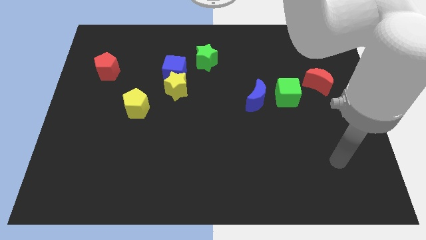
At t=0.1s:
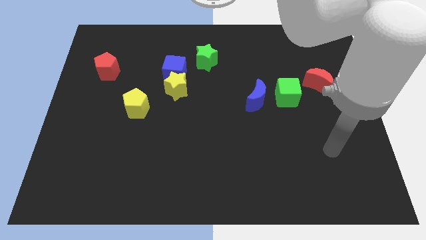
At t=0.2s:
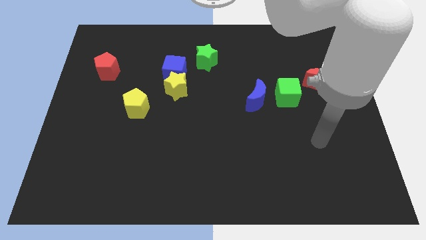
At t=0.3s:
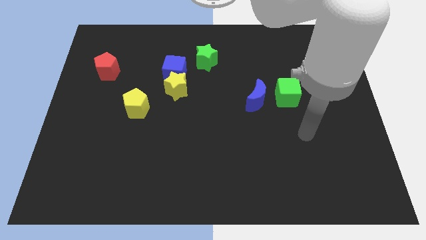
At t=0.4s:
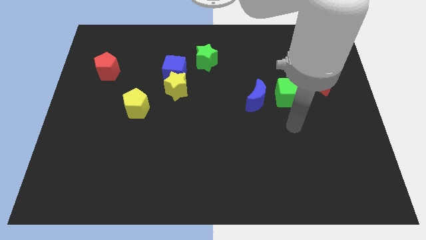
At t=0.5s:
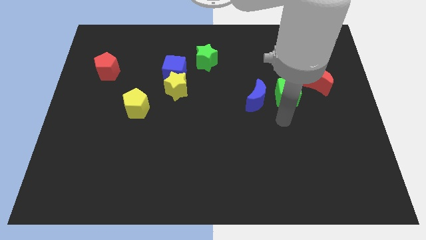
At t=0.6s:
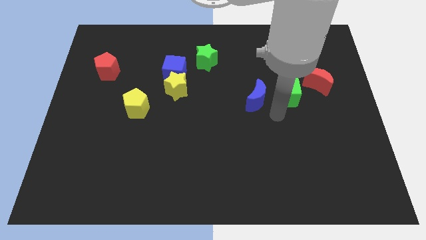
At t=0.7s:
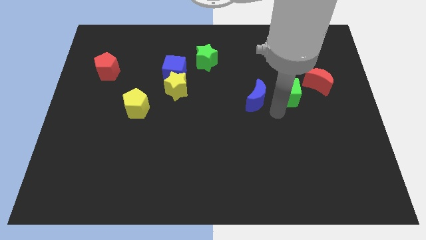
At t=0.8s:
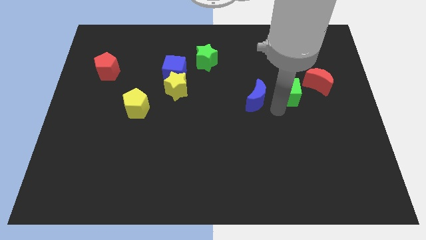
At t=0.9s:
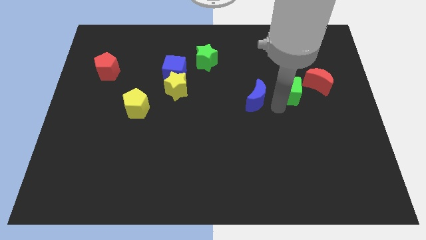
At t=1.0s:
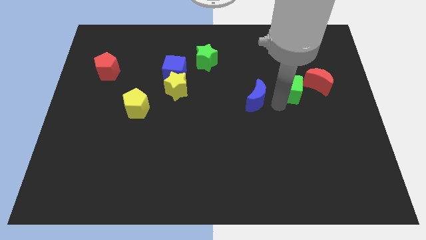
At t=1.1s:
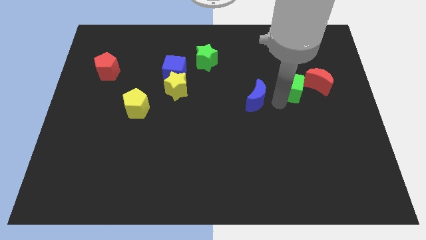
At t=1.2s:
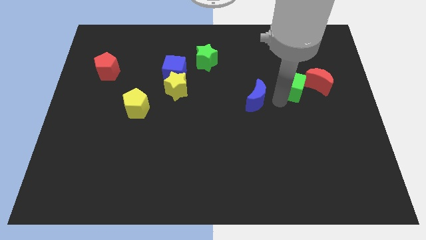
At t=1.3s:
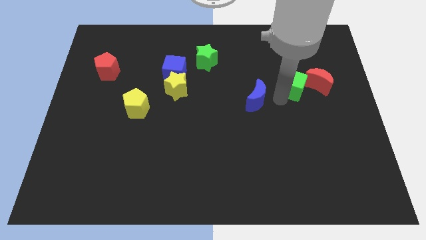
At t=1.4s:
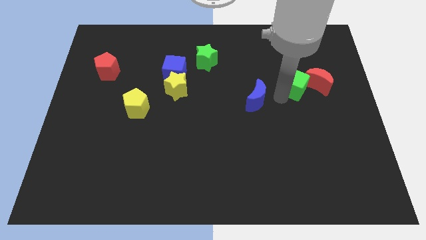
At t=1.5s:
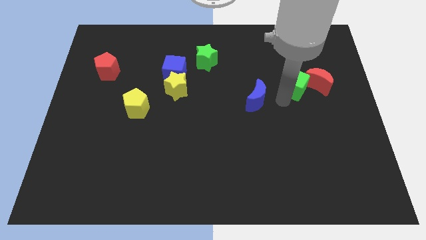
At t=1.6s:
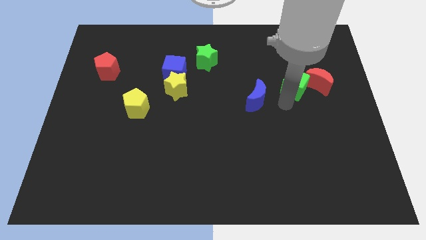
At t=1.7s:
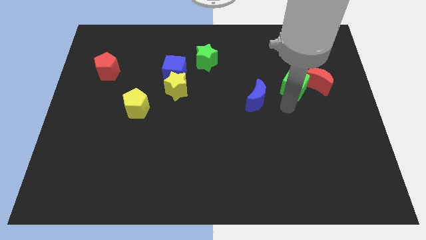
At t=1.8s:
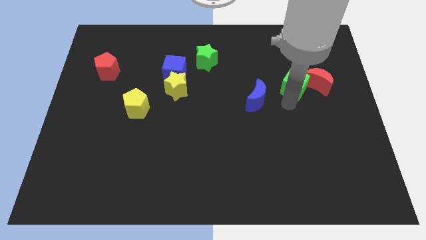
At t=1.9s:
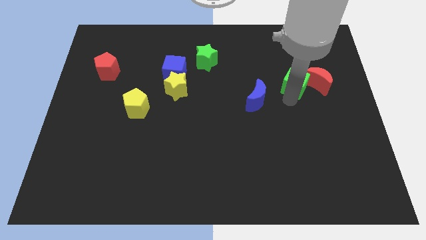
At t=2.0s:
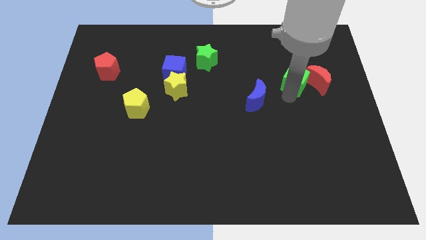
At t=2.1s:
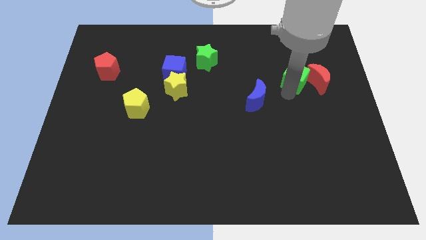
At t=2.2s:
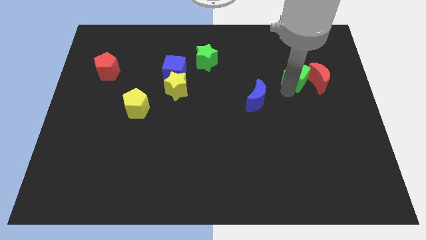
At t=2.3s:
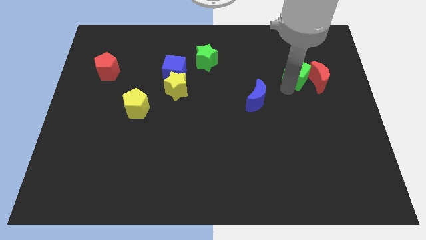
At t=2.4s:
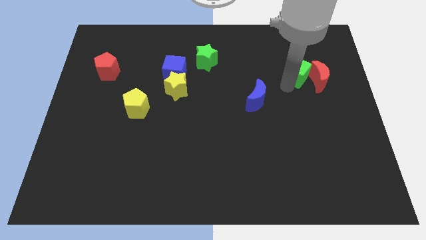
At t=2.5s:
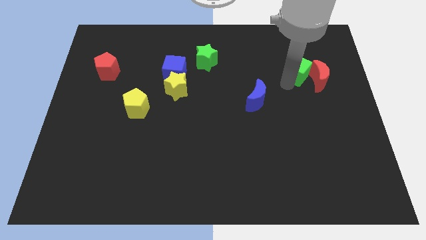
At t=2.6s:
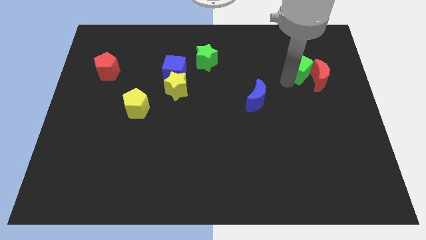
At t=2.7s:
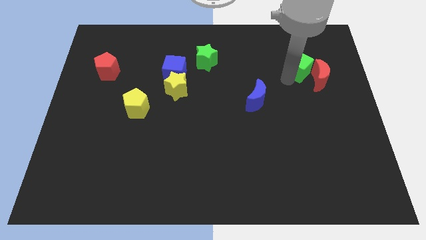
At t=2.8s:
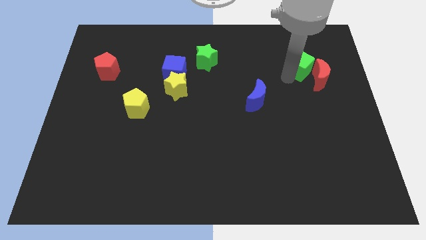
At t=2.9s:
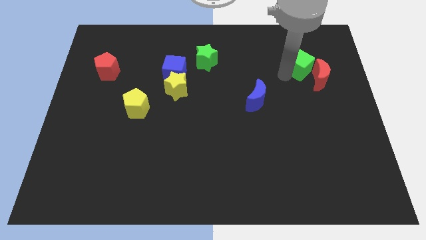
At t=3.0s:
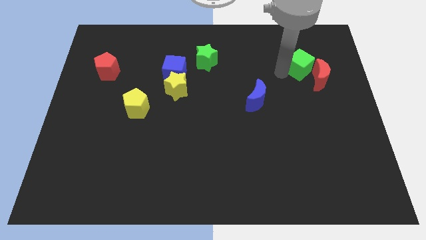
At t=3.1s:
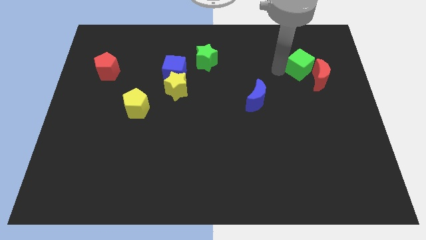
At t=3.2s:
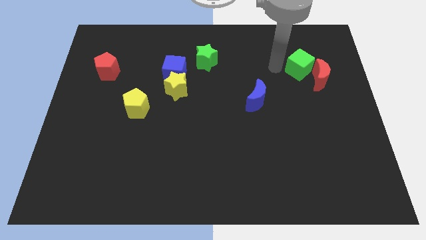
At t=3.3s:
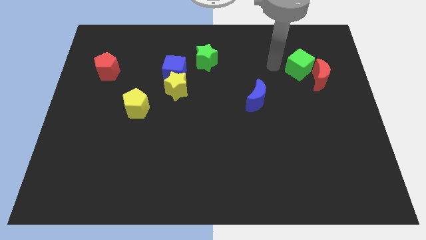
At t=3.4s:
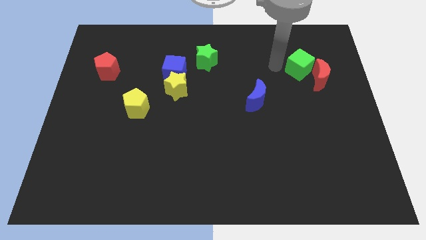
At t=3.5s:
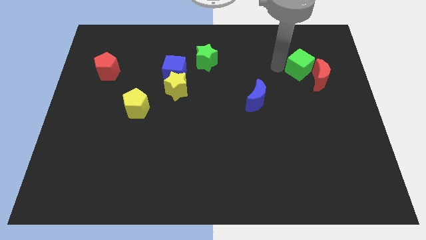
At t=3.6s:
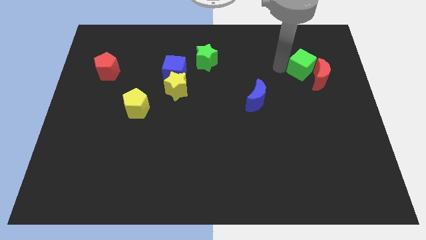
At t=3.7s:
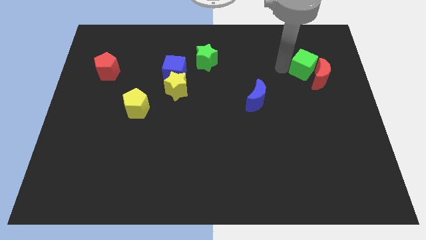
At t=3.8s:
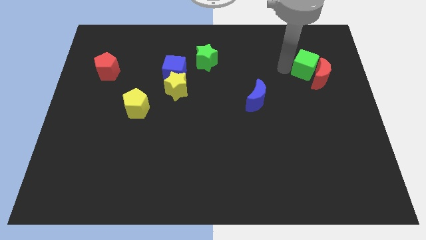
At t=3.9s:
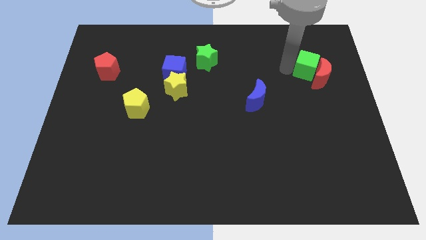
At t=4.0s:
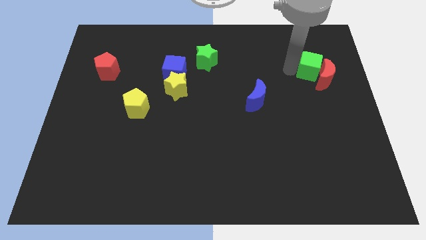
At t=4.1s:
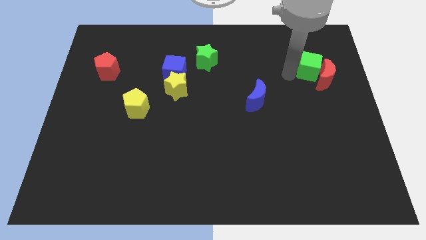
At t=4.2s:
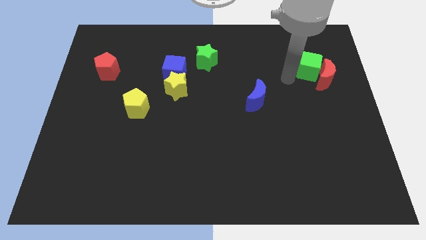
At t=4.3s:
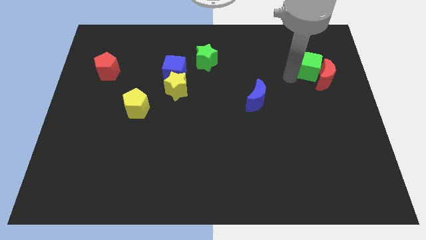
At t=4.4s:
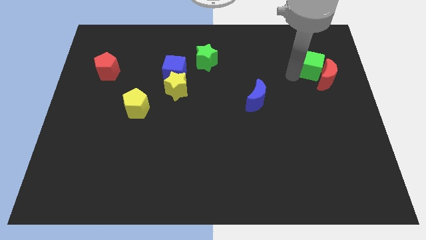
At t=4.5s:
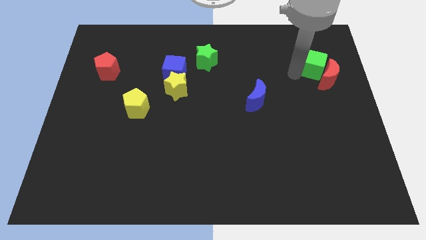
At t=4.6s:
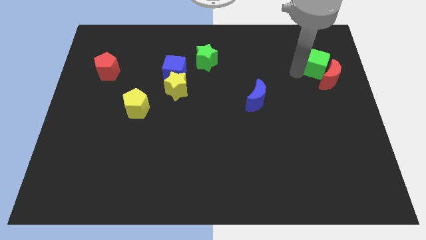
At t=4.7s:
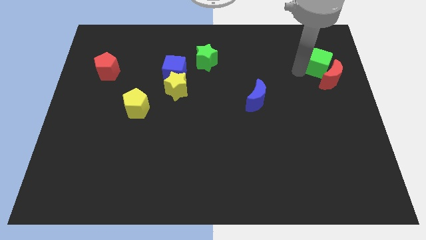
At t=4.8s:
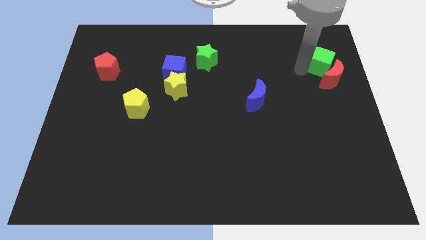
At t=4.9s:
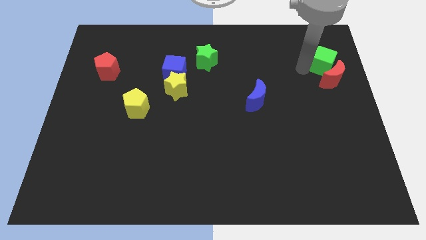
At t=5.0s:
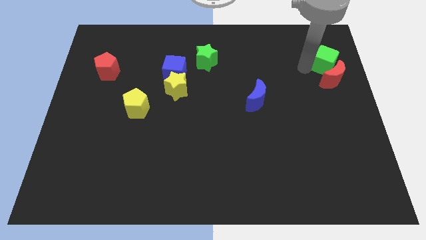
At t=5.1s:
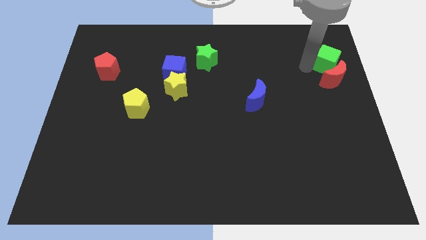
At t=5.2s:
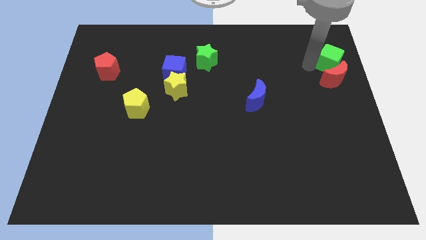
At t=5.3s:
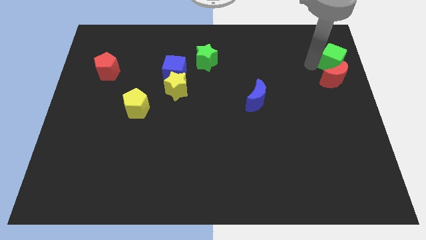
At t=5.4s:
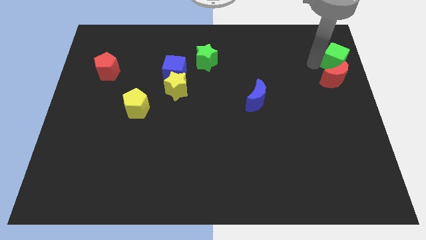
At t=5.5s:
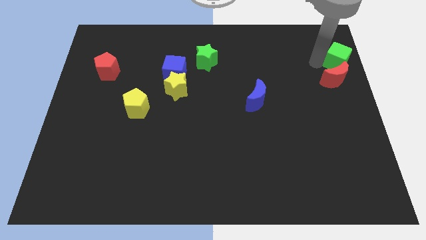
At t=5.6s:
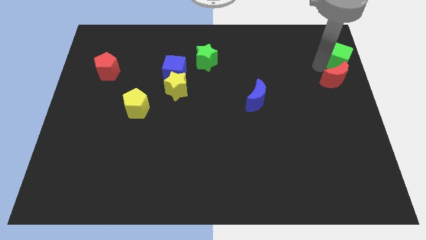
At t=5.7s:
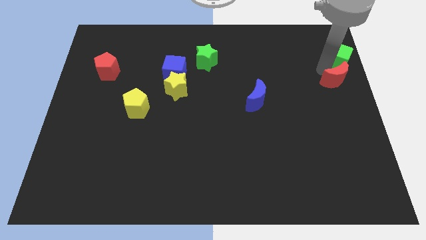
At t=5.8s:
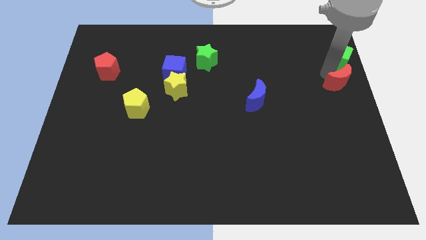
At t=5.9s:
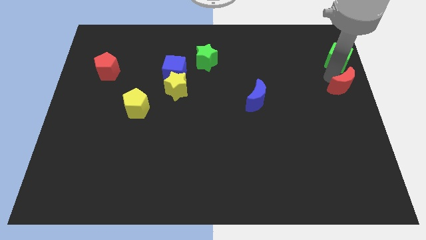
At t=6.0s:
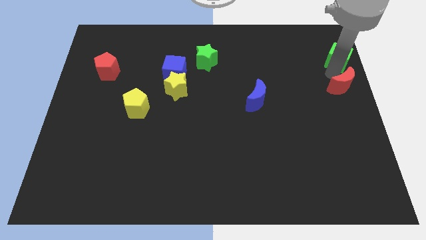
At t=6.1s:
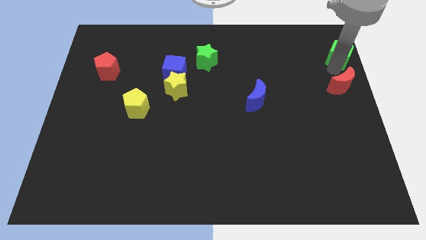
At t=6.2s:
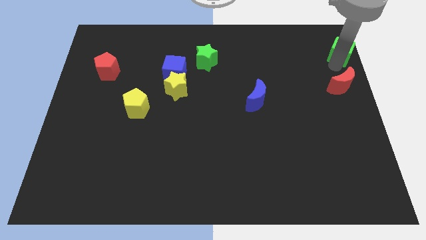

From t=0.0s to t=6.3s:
move the green cube to the top right corner
